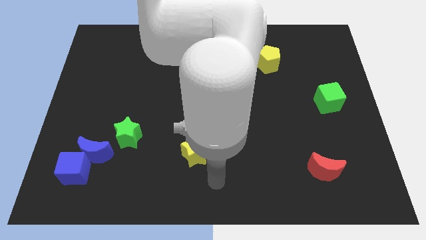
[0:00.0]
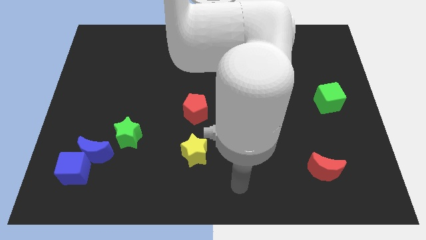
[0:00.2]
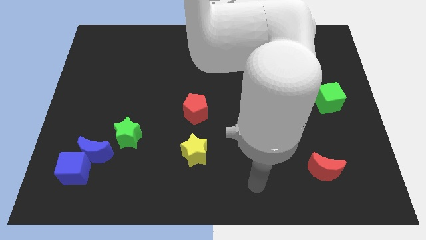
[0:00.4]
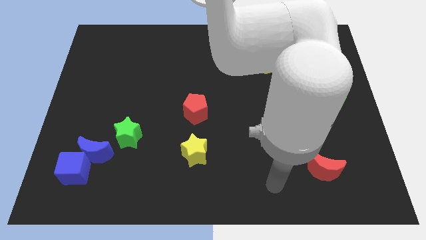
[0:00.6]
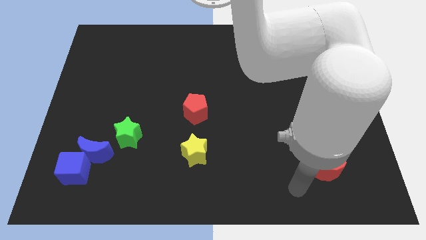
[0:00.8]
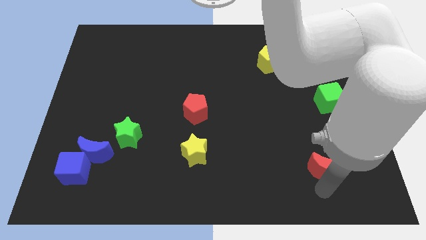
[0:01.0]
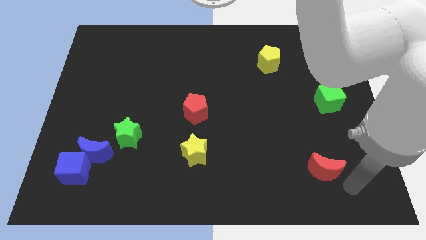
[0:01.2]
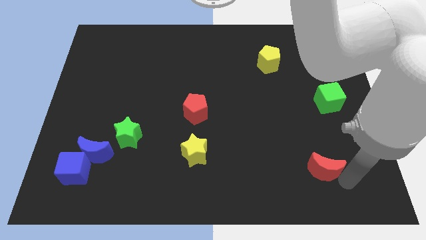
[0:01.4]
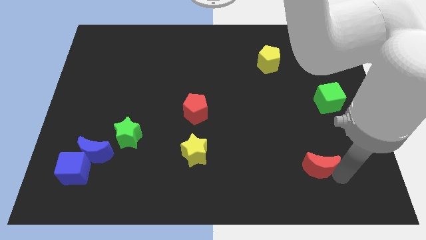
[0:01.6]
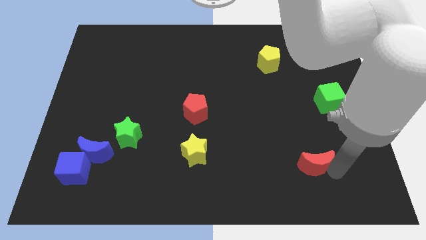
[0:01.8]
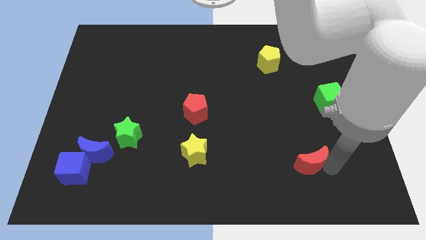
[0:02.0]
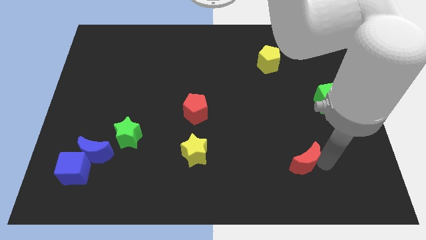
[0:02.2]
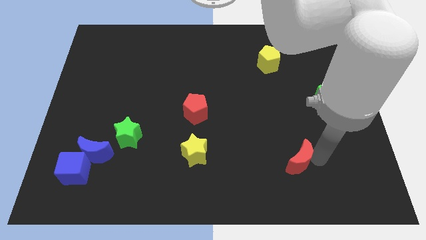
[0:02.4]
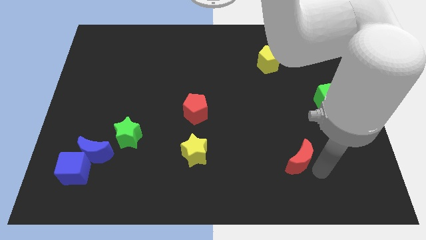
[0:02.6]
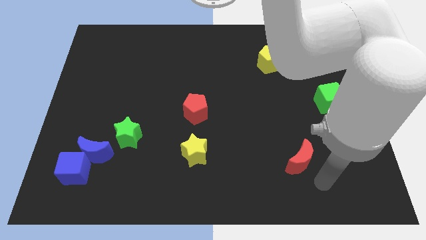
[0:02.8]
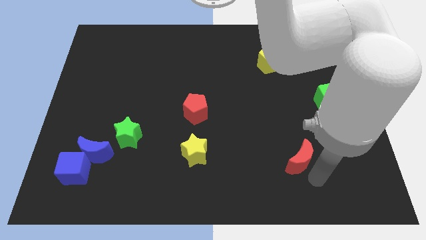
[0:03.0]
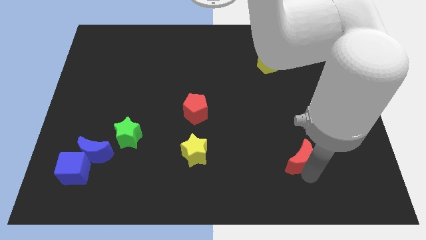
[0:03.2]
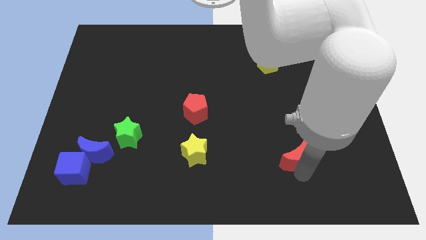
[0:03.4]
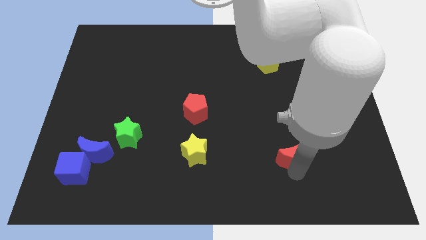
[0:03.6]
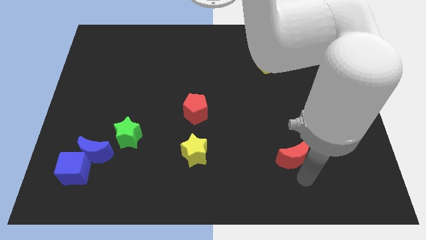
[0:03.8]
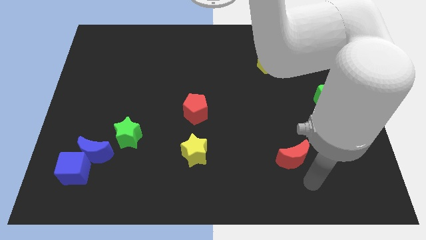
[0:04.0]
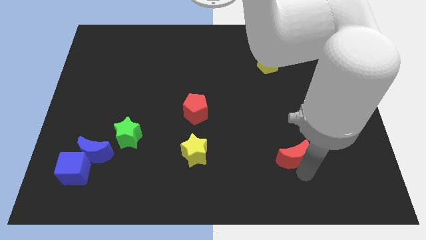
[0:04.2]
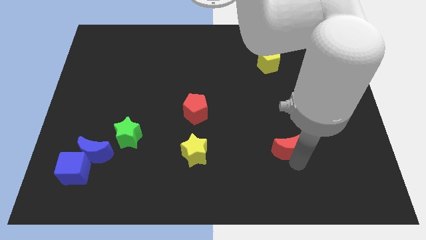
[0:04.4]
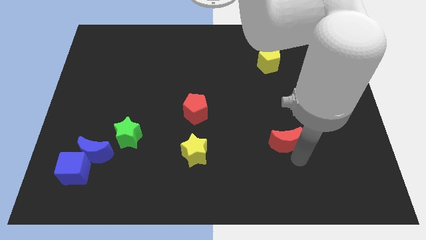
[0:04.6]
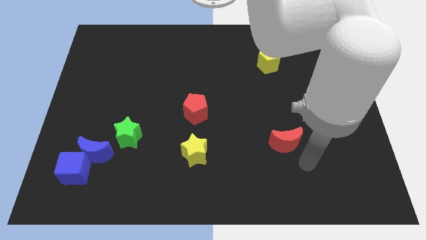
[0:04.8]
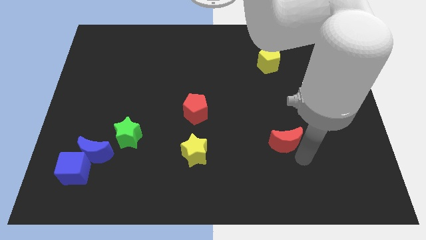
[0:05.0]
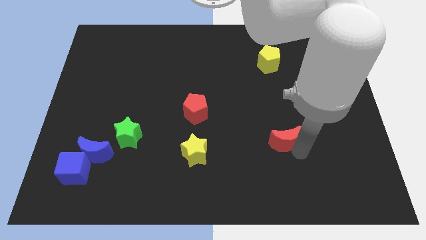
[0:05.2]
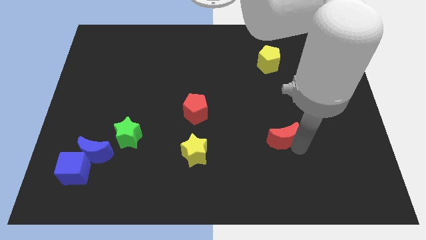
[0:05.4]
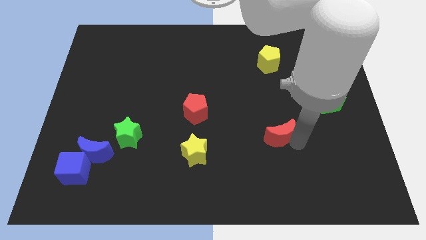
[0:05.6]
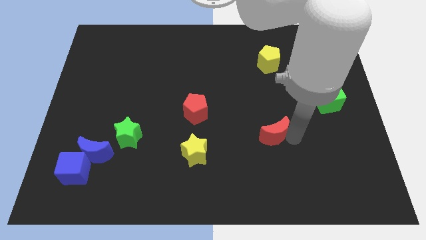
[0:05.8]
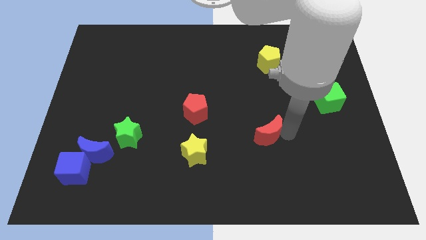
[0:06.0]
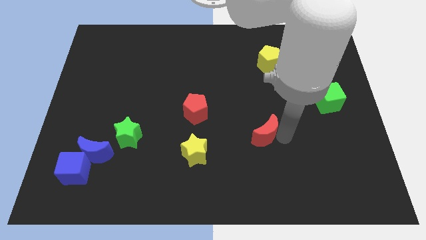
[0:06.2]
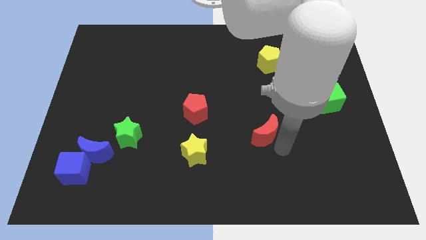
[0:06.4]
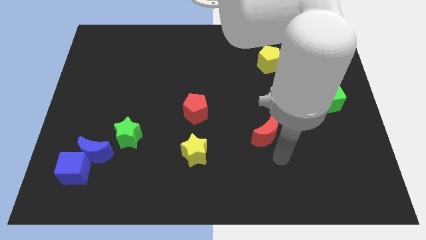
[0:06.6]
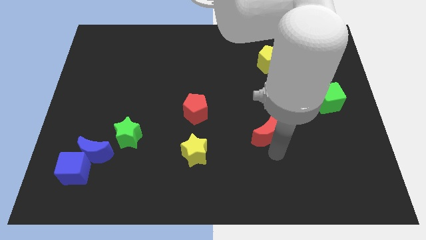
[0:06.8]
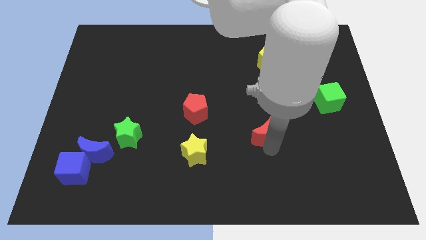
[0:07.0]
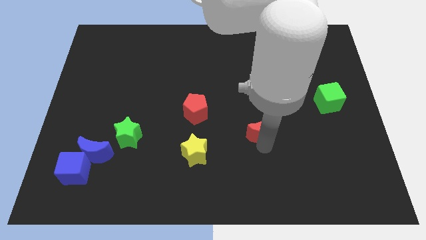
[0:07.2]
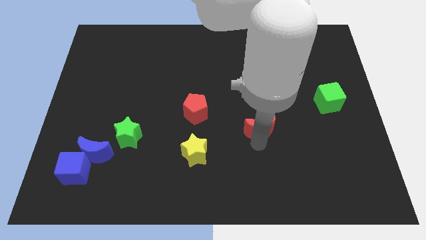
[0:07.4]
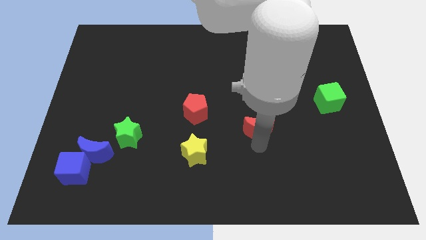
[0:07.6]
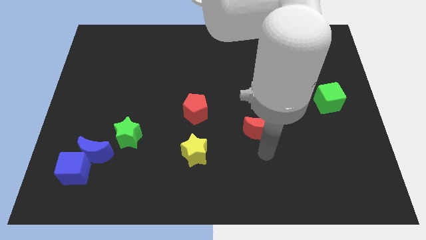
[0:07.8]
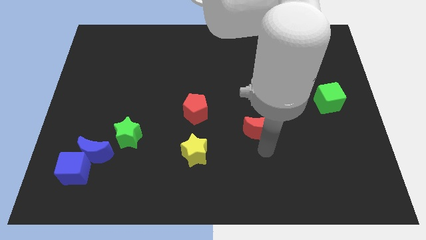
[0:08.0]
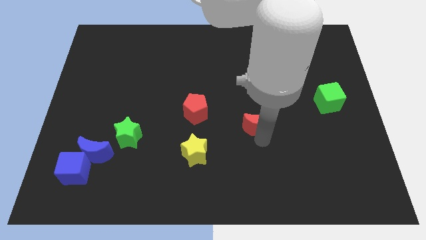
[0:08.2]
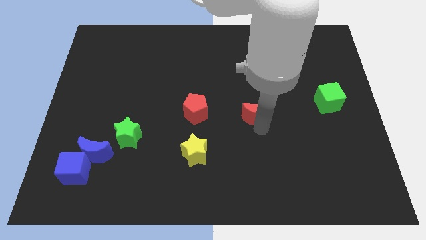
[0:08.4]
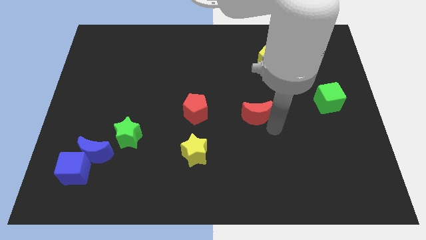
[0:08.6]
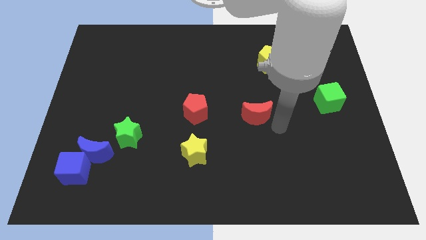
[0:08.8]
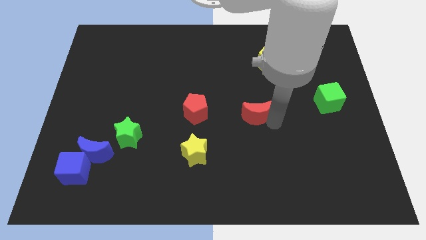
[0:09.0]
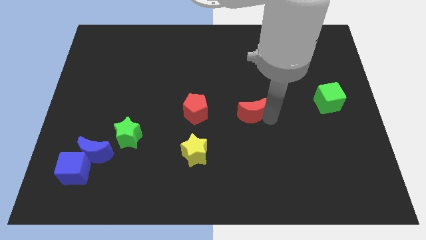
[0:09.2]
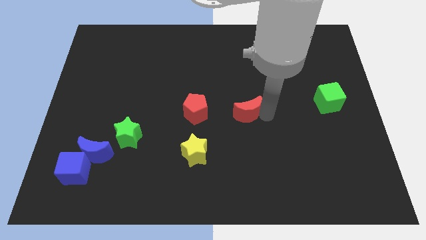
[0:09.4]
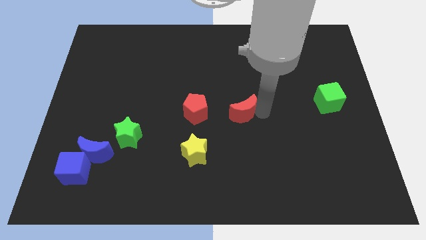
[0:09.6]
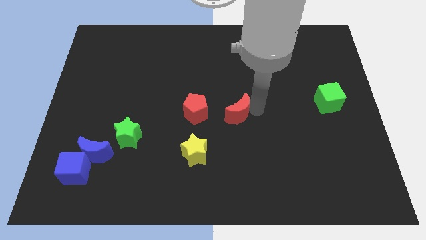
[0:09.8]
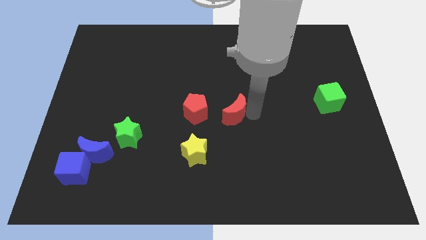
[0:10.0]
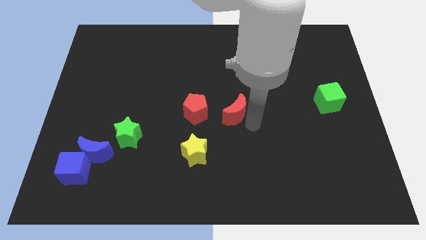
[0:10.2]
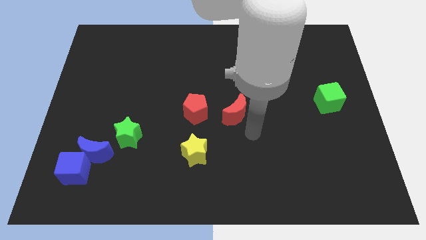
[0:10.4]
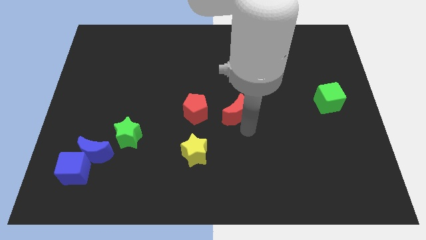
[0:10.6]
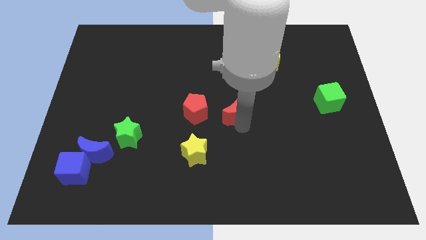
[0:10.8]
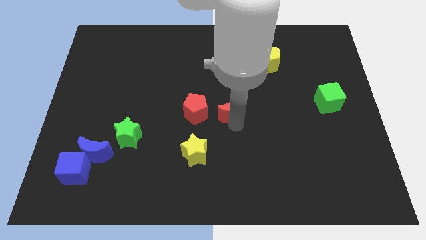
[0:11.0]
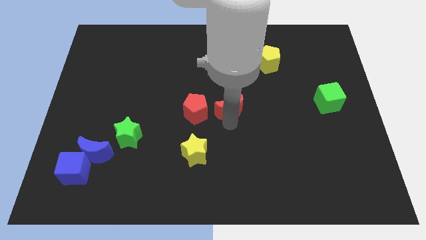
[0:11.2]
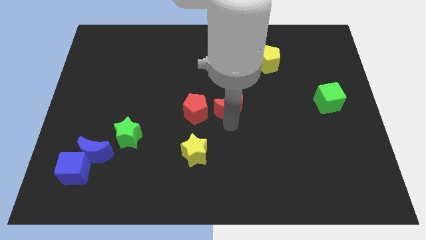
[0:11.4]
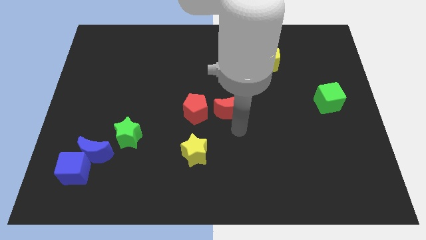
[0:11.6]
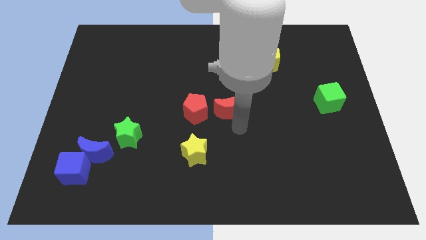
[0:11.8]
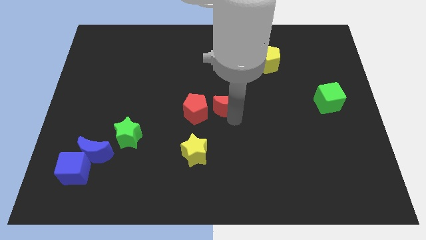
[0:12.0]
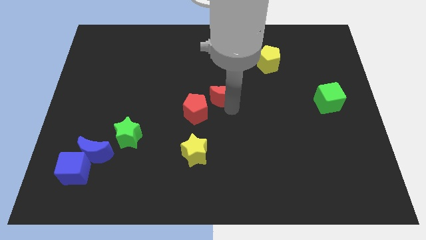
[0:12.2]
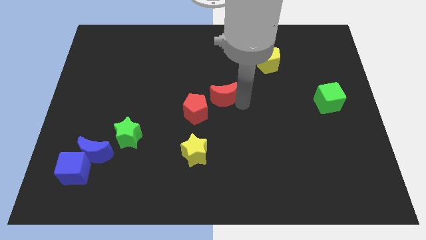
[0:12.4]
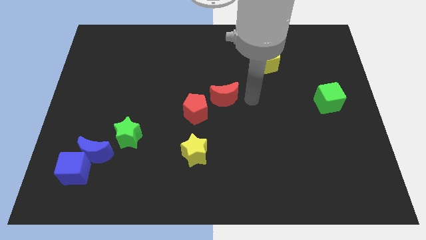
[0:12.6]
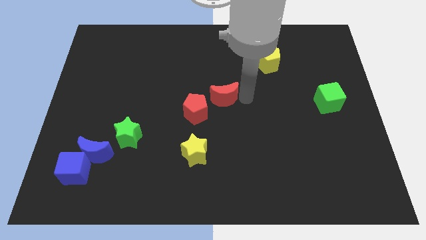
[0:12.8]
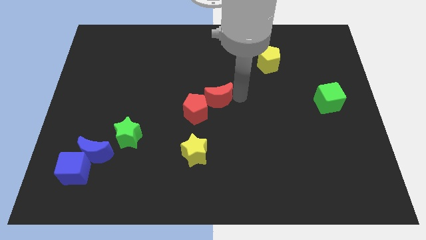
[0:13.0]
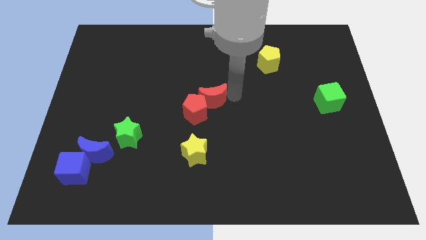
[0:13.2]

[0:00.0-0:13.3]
put the red moon to the top side of the yellow star

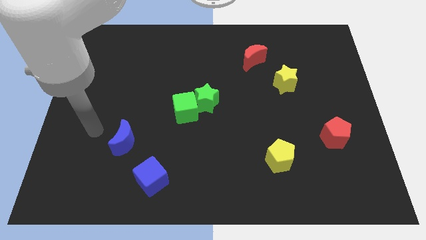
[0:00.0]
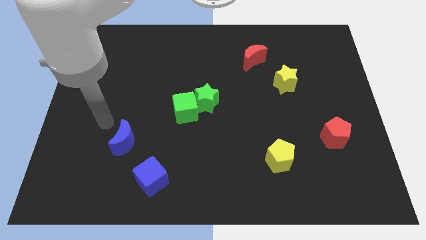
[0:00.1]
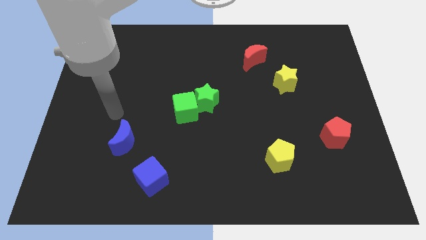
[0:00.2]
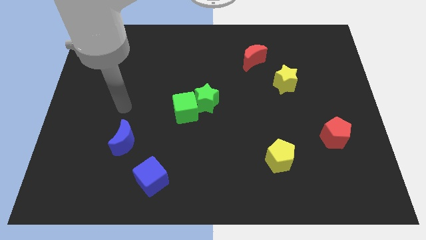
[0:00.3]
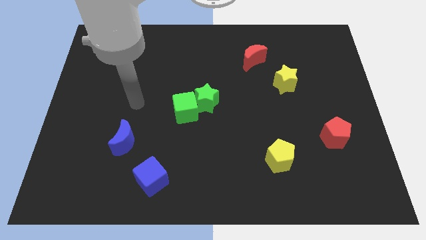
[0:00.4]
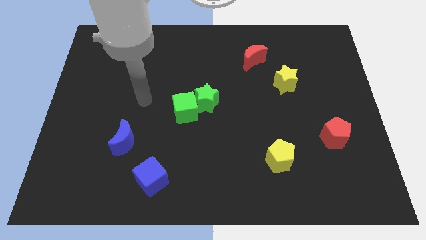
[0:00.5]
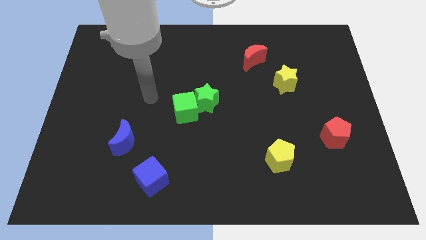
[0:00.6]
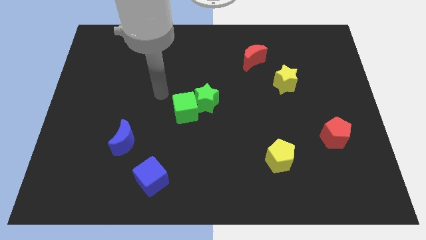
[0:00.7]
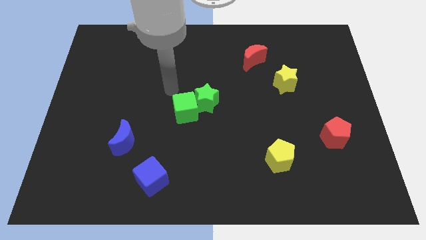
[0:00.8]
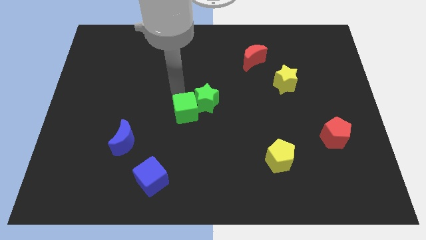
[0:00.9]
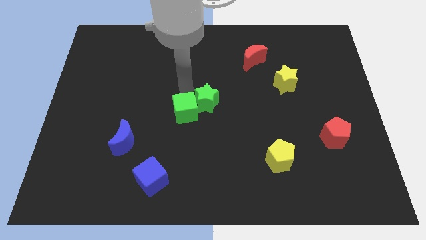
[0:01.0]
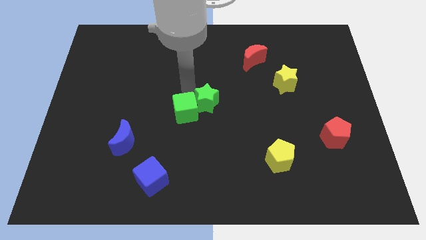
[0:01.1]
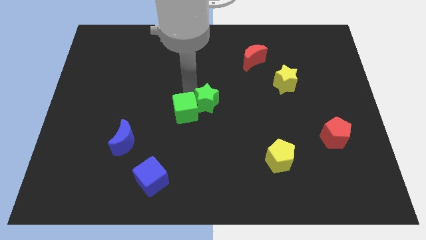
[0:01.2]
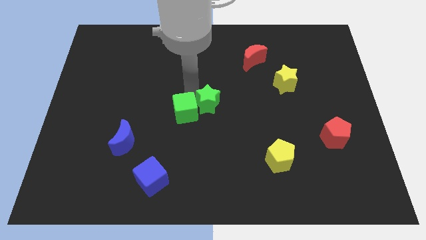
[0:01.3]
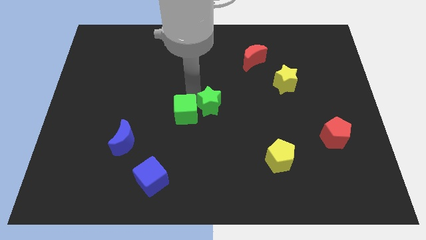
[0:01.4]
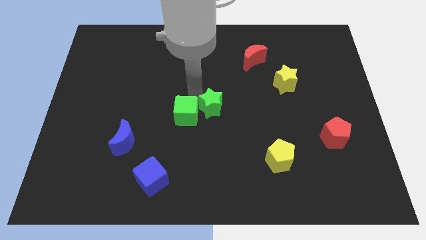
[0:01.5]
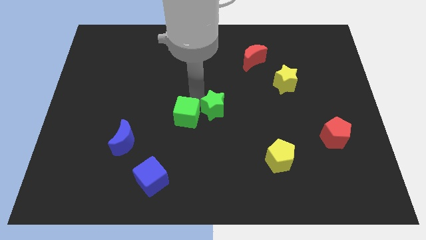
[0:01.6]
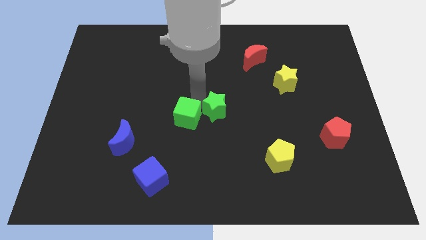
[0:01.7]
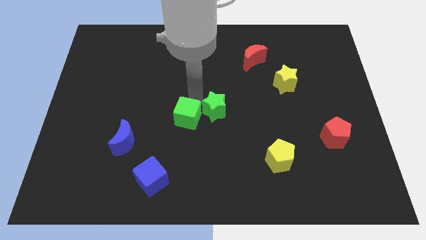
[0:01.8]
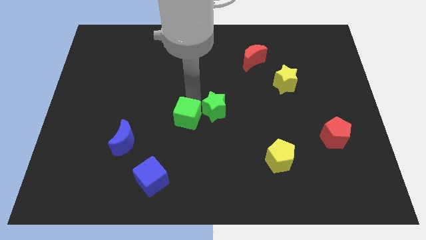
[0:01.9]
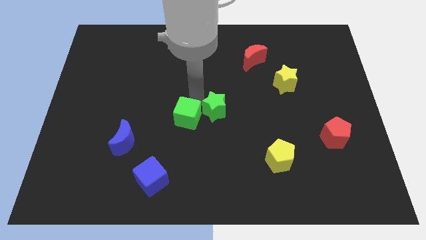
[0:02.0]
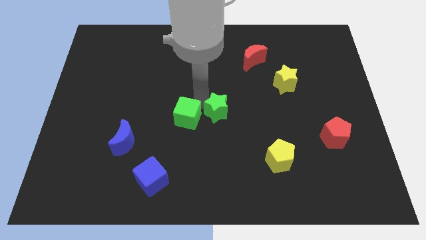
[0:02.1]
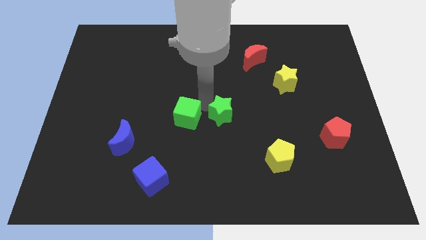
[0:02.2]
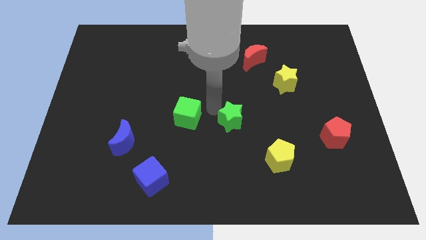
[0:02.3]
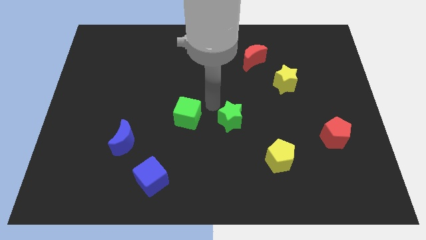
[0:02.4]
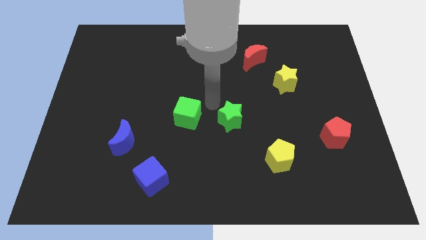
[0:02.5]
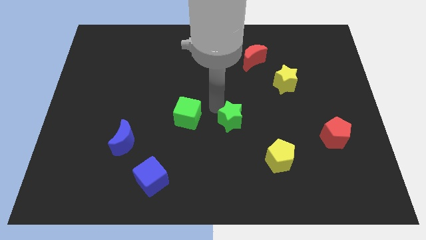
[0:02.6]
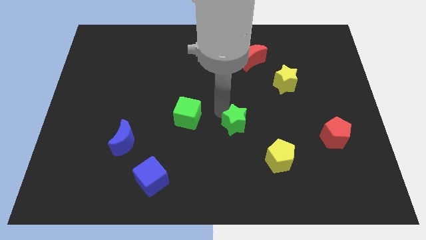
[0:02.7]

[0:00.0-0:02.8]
push the green star diagonally up and to the left of the yellow pentagon
